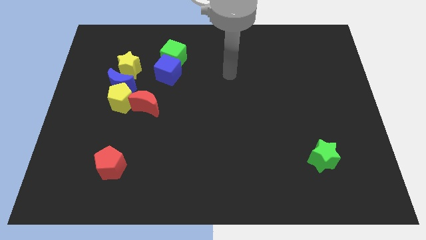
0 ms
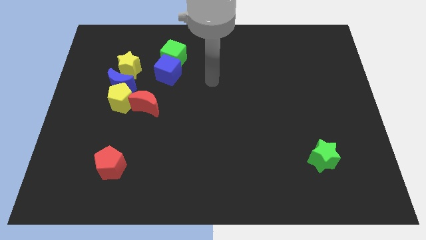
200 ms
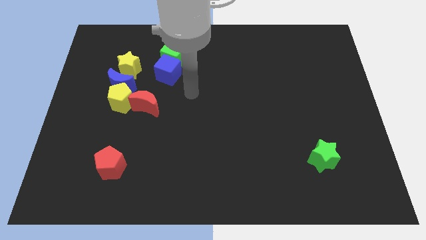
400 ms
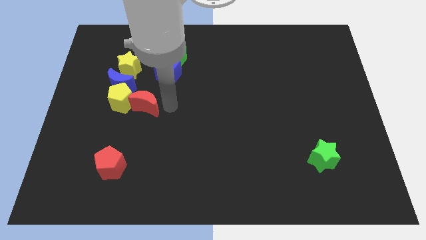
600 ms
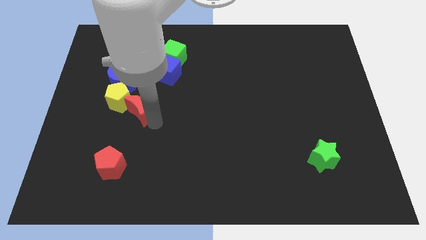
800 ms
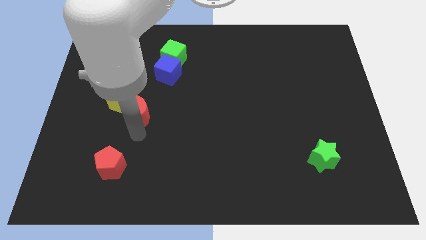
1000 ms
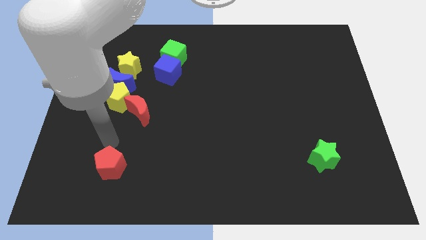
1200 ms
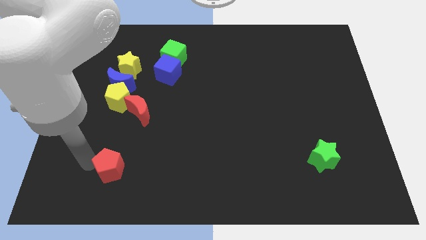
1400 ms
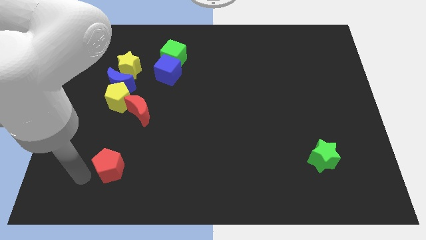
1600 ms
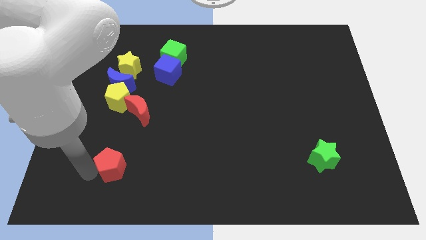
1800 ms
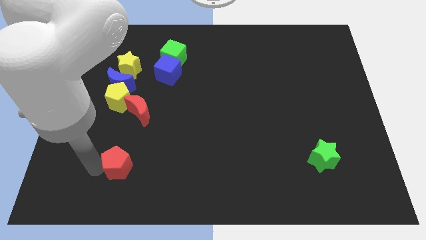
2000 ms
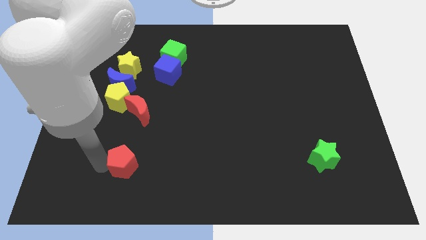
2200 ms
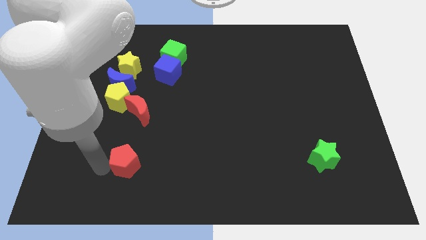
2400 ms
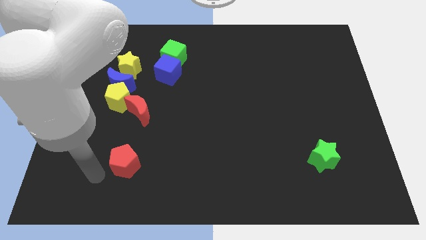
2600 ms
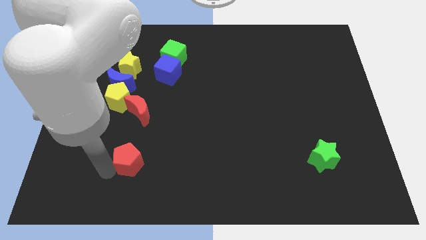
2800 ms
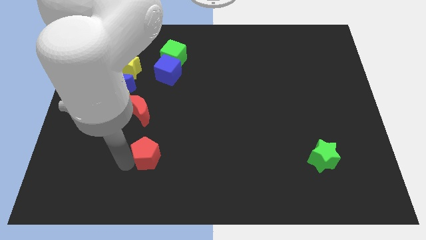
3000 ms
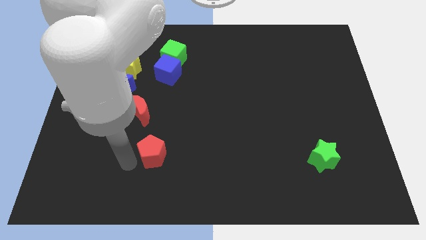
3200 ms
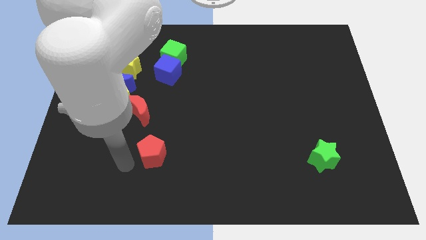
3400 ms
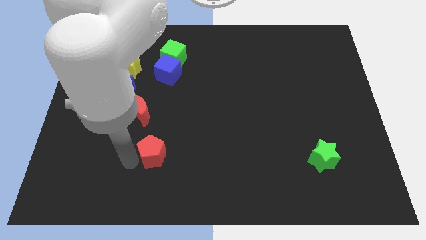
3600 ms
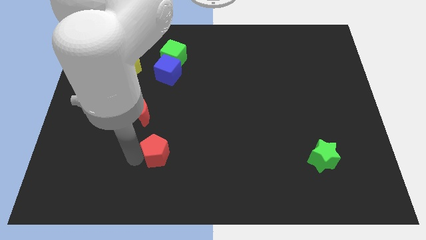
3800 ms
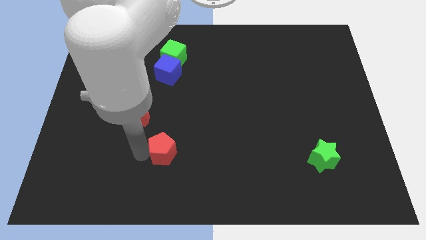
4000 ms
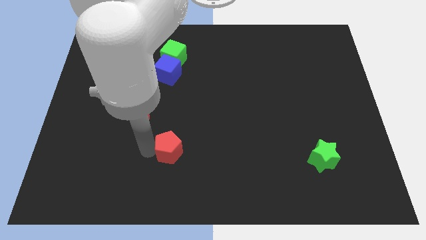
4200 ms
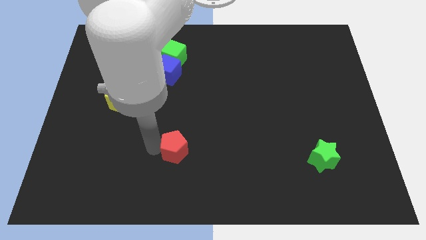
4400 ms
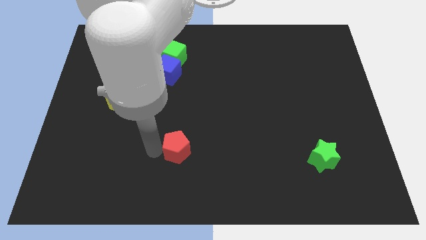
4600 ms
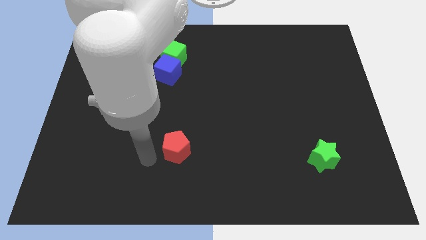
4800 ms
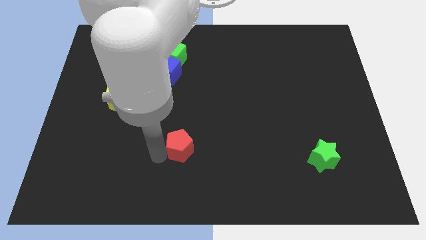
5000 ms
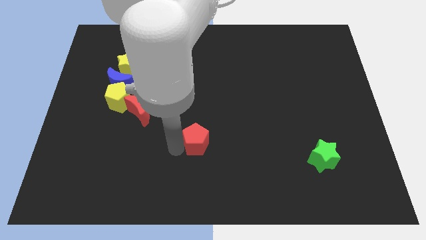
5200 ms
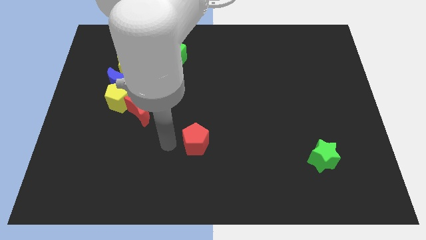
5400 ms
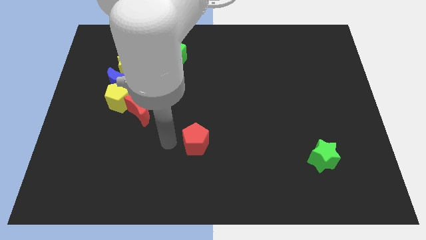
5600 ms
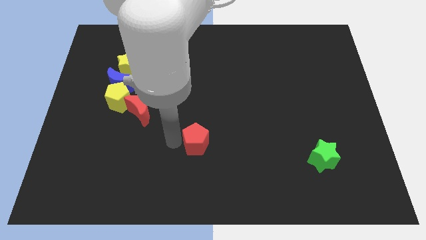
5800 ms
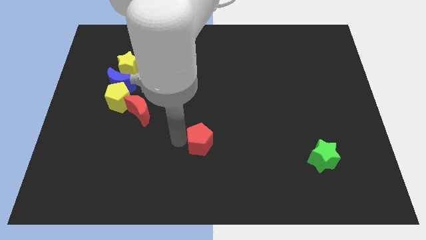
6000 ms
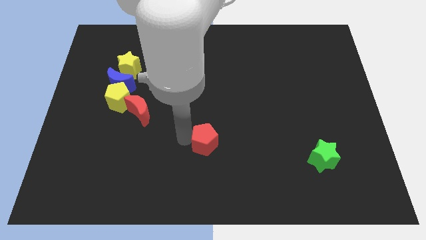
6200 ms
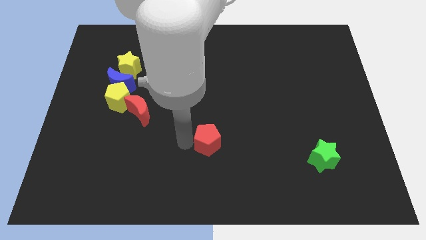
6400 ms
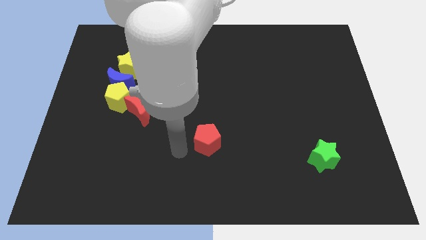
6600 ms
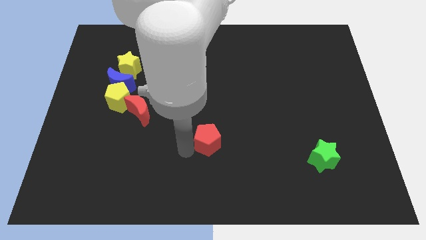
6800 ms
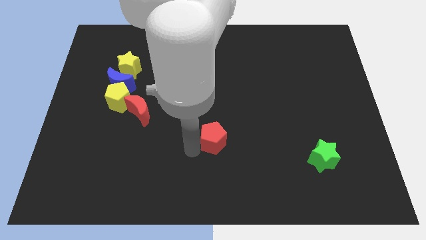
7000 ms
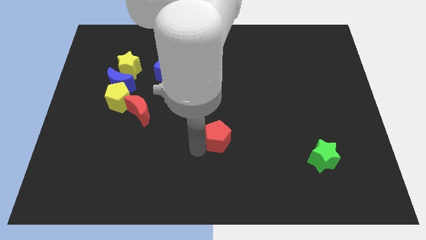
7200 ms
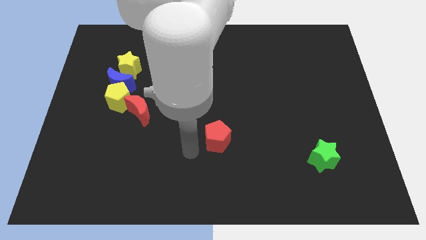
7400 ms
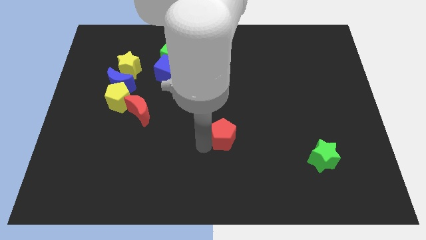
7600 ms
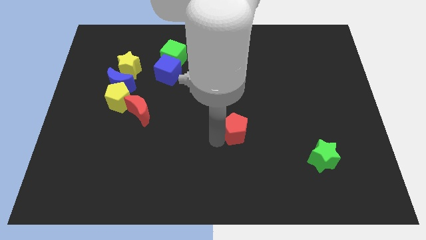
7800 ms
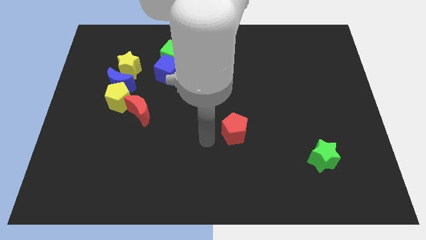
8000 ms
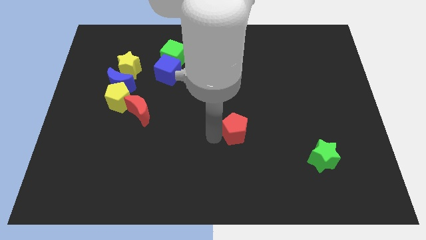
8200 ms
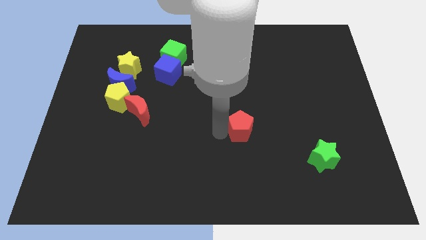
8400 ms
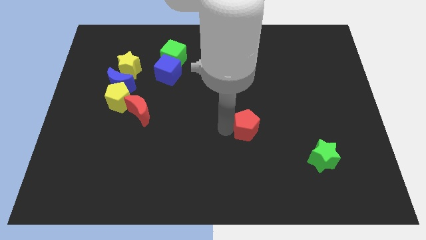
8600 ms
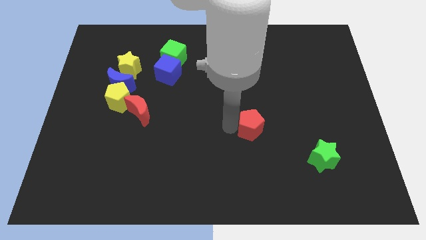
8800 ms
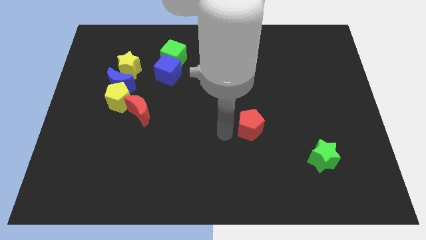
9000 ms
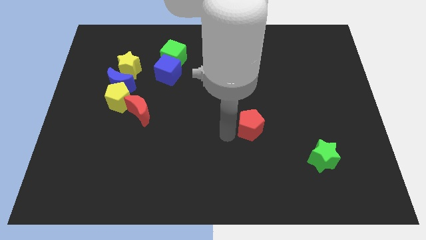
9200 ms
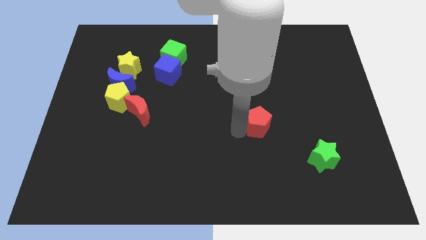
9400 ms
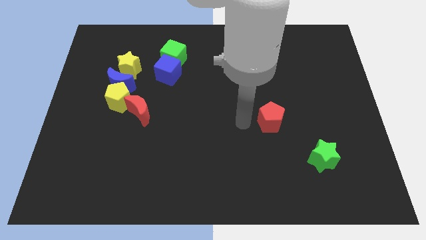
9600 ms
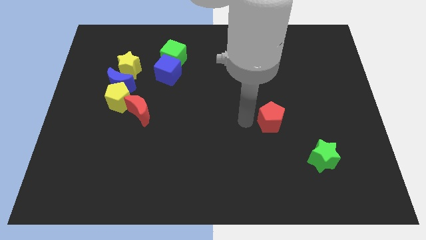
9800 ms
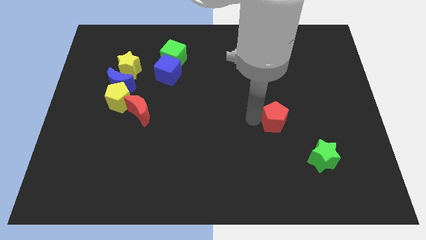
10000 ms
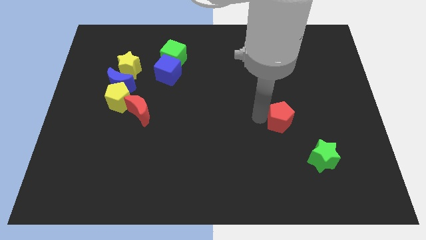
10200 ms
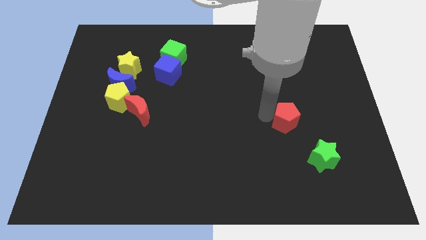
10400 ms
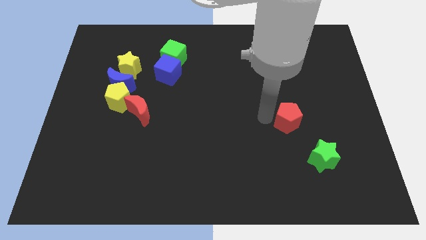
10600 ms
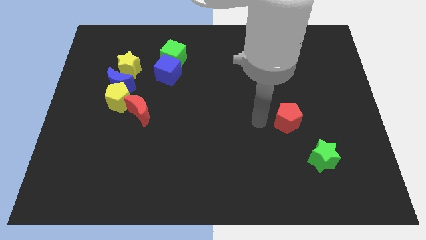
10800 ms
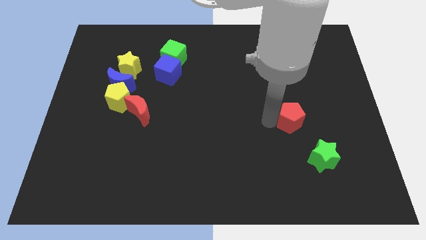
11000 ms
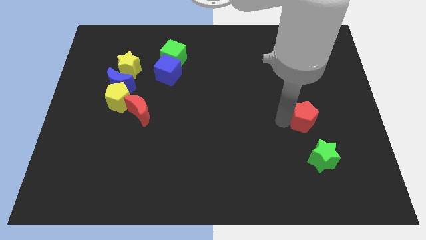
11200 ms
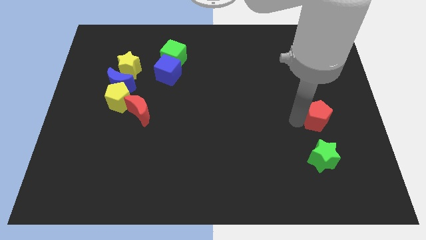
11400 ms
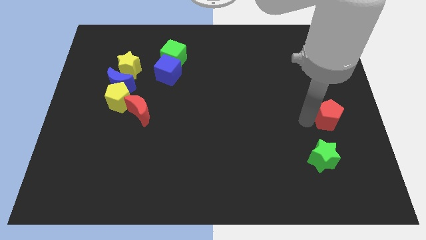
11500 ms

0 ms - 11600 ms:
slide the red pentagon to the center right

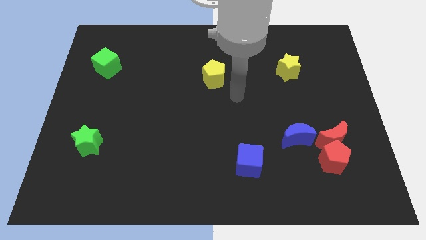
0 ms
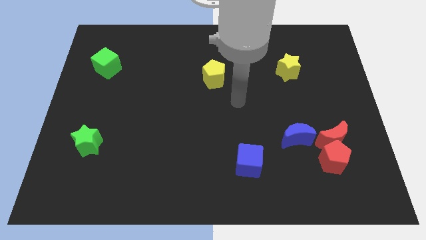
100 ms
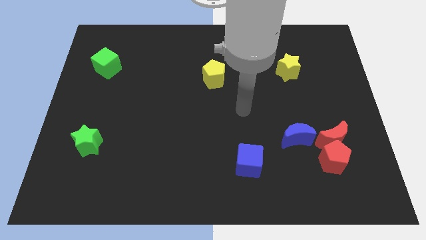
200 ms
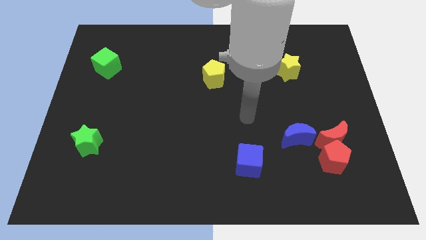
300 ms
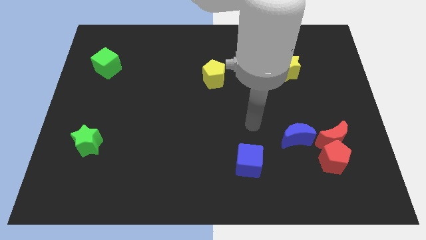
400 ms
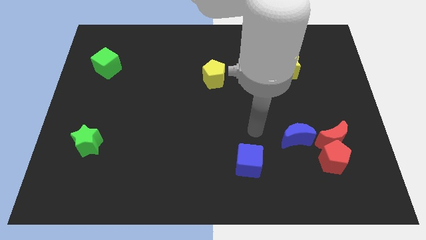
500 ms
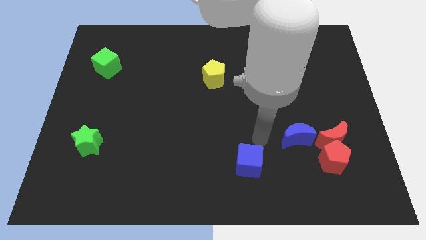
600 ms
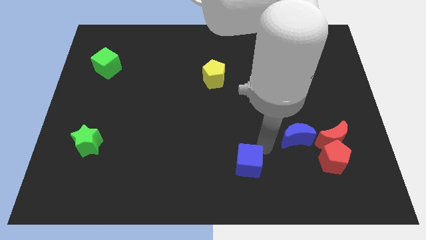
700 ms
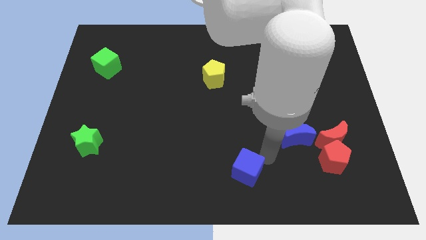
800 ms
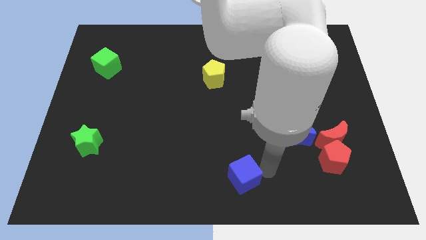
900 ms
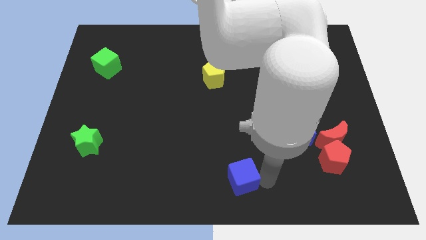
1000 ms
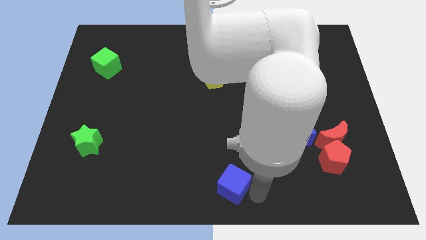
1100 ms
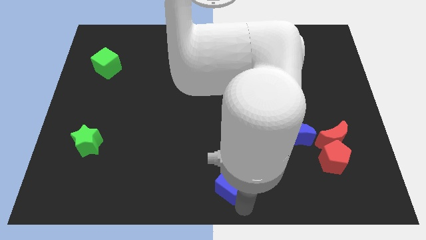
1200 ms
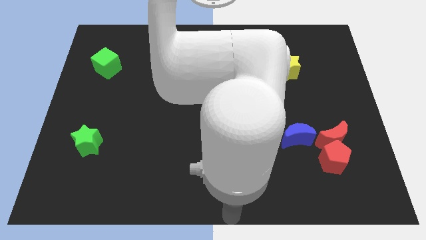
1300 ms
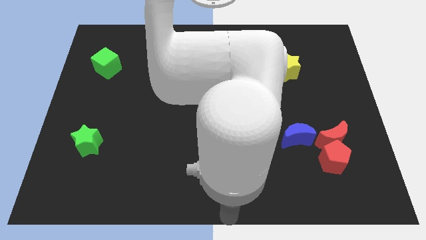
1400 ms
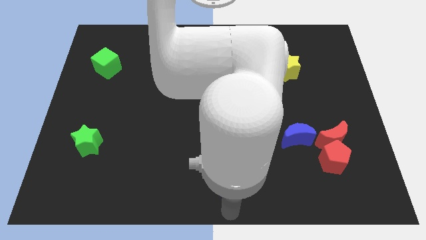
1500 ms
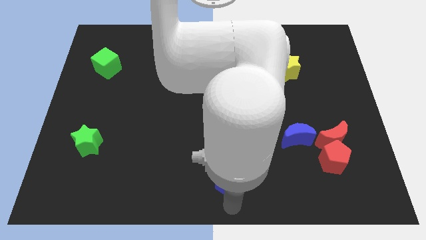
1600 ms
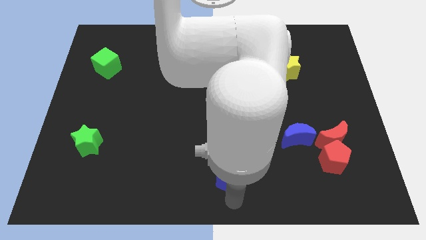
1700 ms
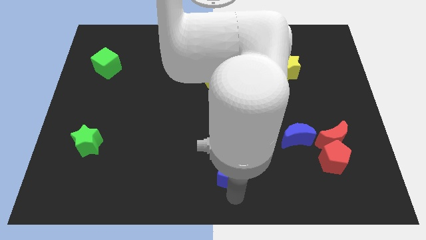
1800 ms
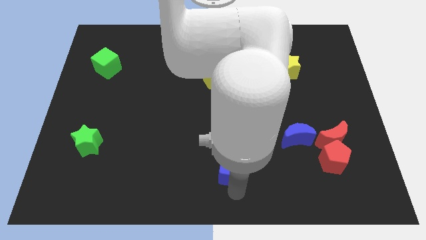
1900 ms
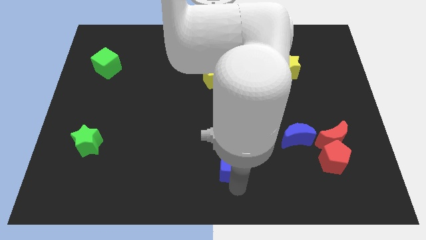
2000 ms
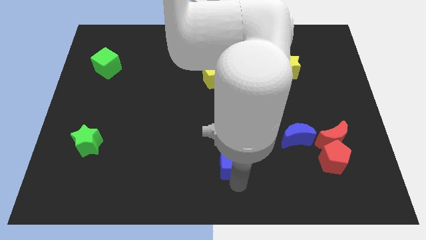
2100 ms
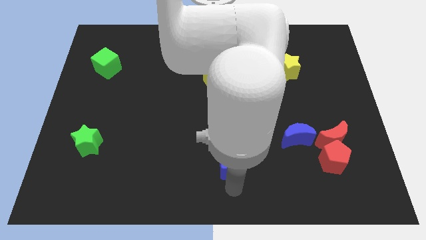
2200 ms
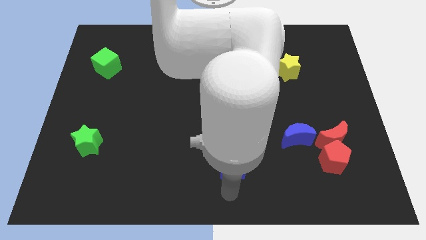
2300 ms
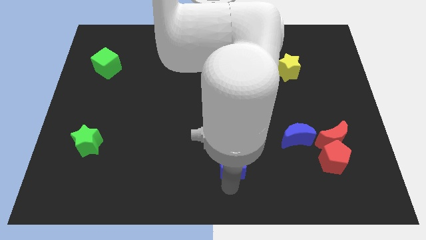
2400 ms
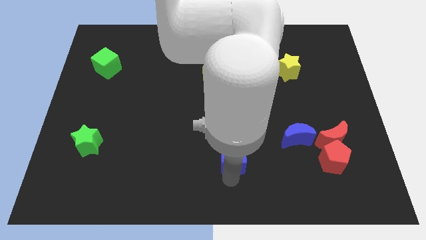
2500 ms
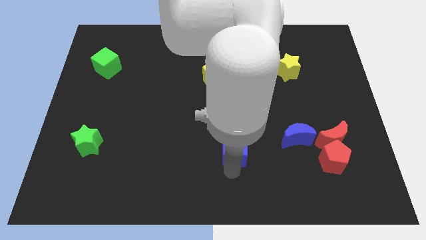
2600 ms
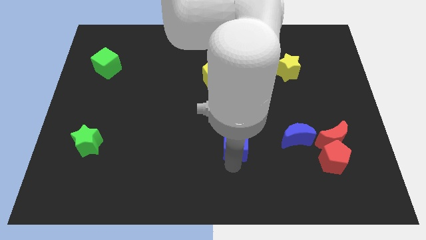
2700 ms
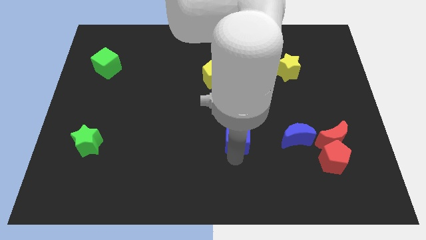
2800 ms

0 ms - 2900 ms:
push the blue cube to the middle of the board
